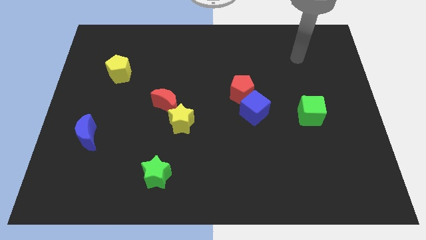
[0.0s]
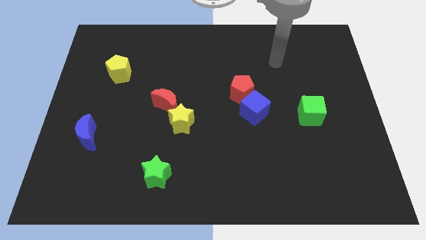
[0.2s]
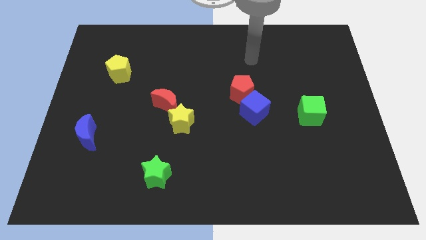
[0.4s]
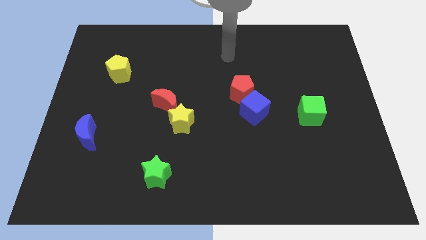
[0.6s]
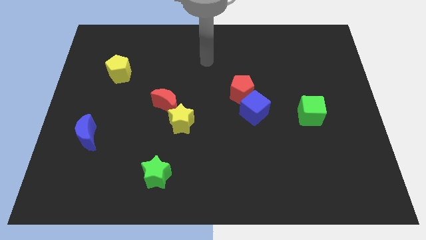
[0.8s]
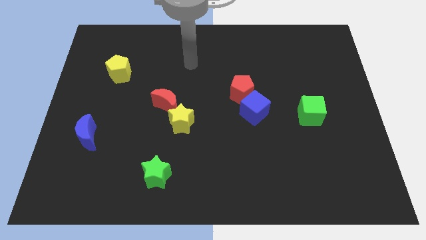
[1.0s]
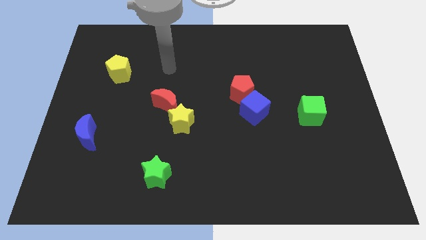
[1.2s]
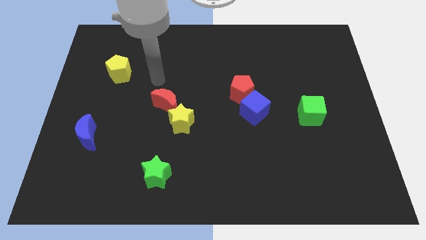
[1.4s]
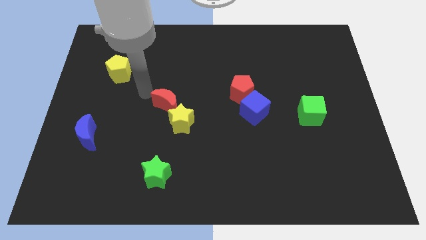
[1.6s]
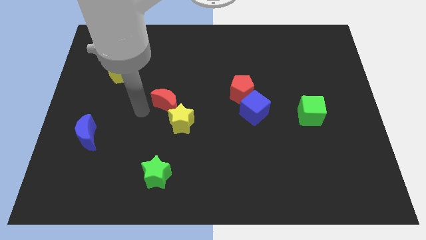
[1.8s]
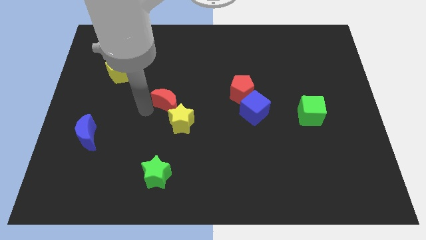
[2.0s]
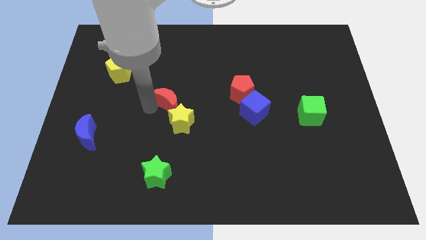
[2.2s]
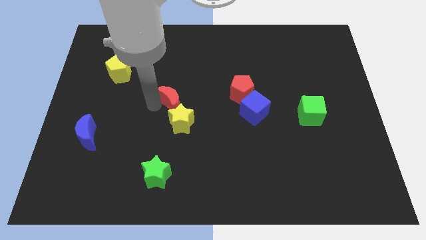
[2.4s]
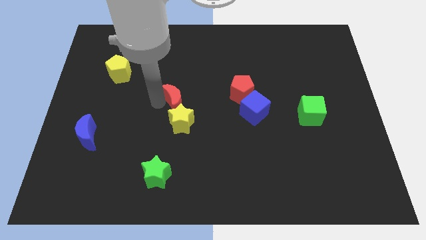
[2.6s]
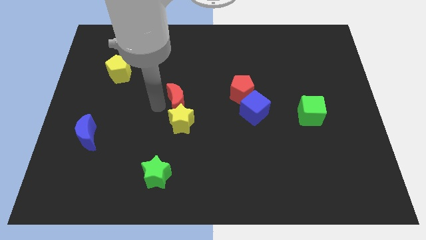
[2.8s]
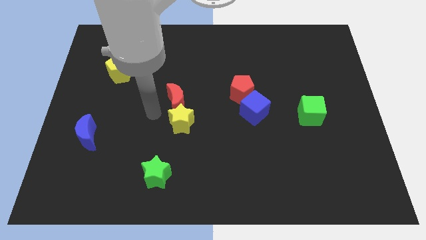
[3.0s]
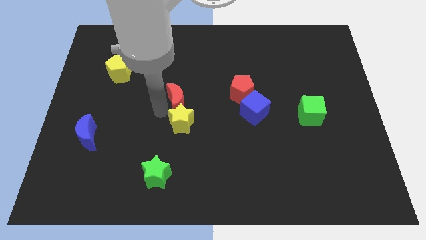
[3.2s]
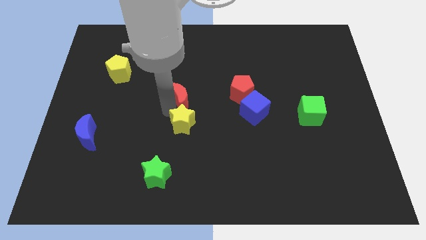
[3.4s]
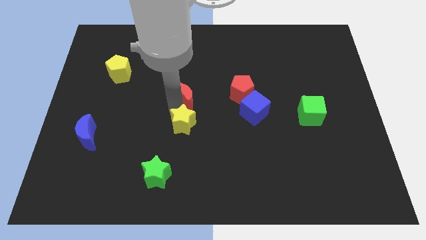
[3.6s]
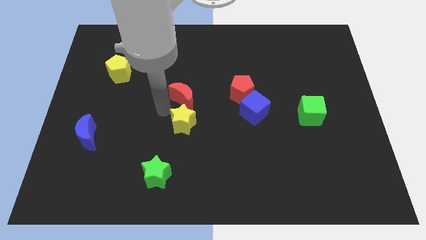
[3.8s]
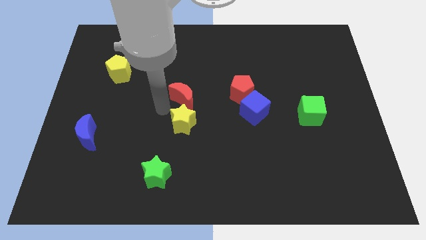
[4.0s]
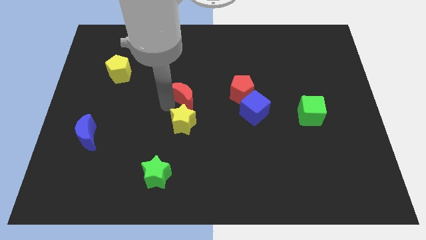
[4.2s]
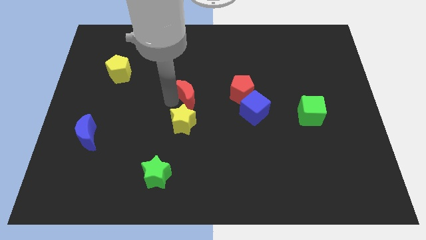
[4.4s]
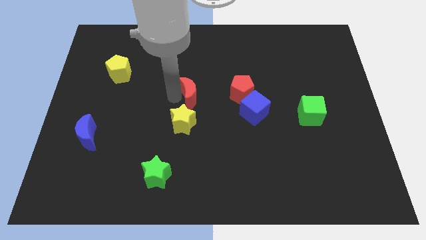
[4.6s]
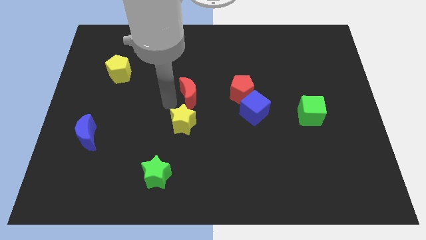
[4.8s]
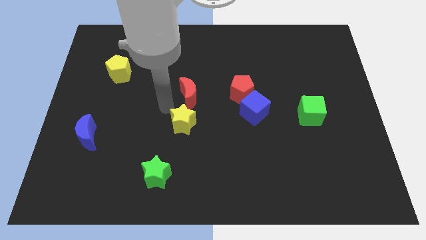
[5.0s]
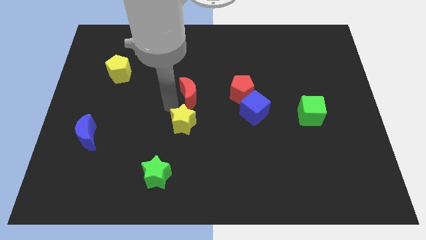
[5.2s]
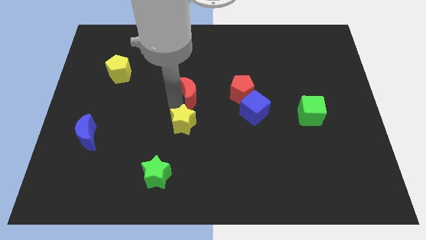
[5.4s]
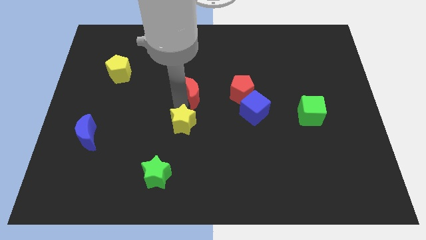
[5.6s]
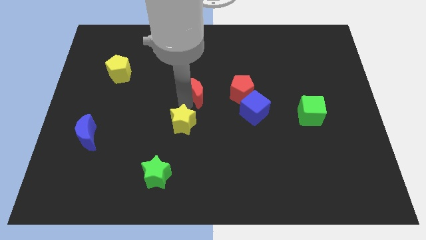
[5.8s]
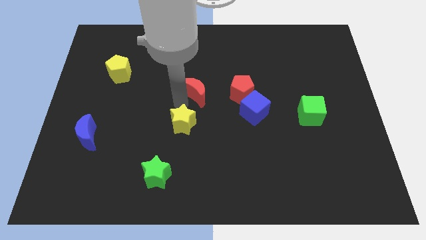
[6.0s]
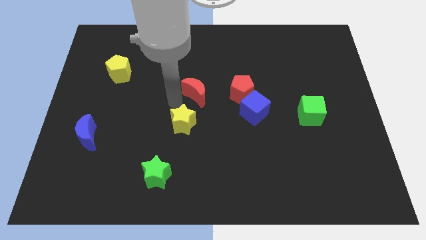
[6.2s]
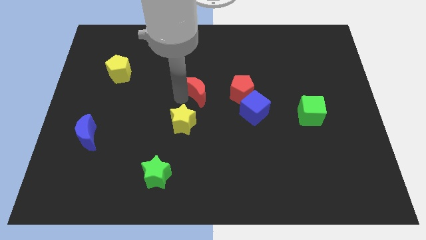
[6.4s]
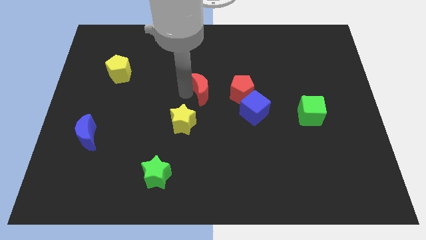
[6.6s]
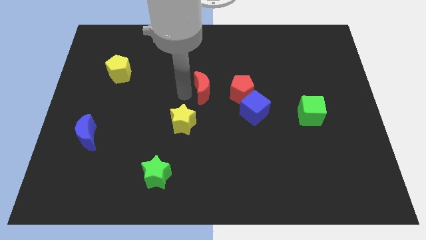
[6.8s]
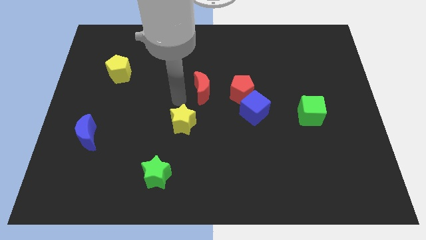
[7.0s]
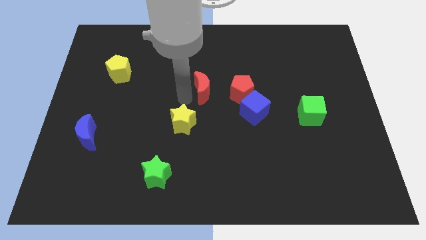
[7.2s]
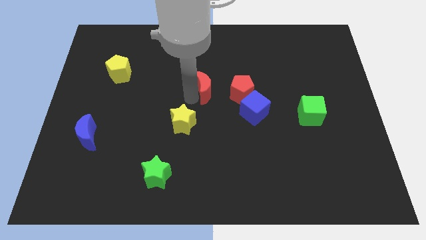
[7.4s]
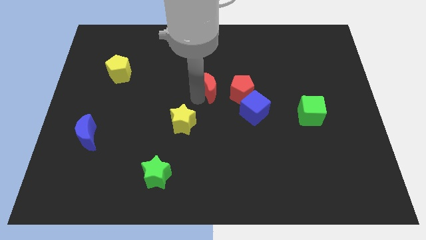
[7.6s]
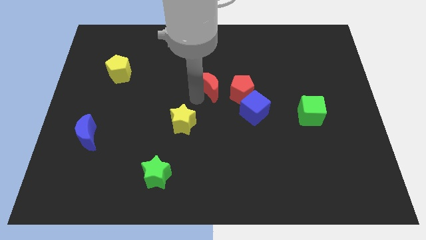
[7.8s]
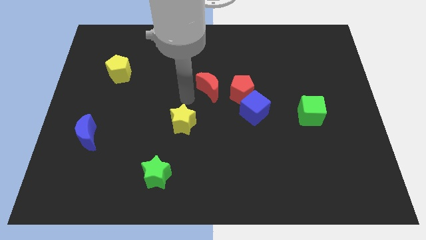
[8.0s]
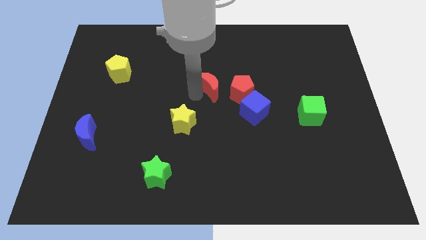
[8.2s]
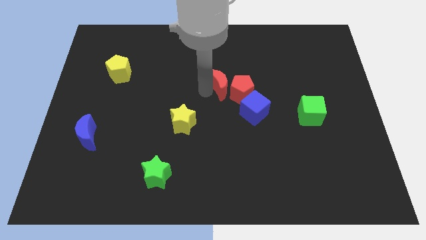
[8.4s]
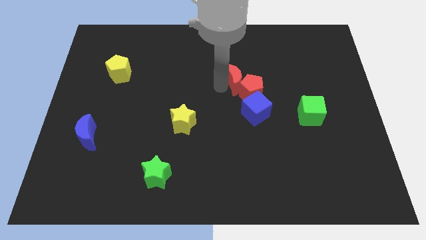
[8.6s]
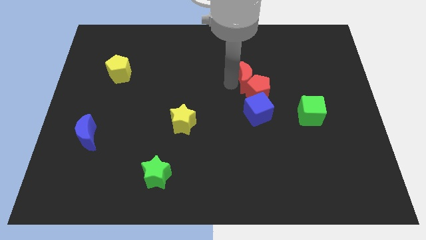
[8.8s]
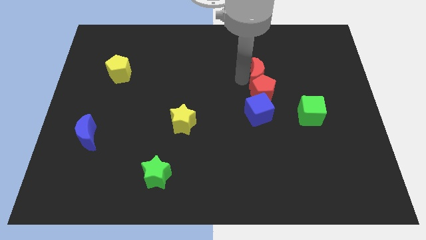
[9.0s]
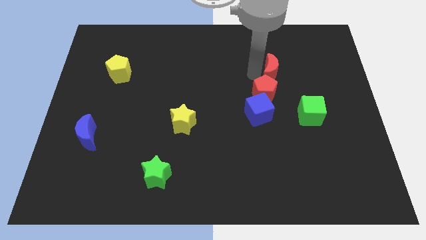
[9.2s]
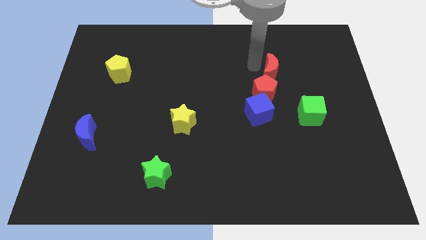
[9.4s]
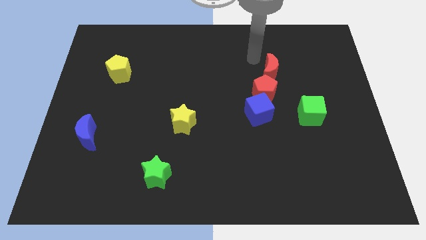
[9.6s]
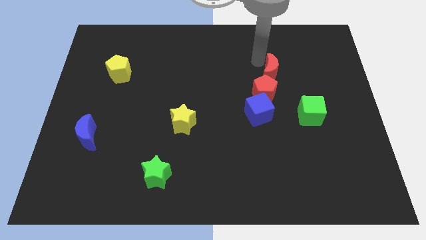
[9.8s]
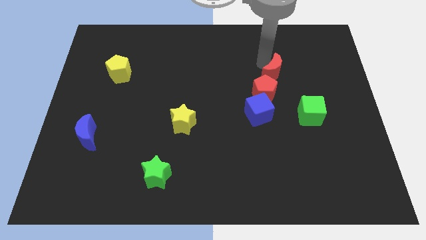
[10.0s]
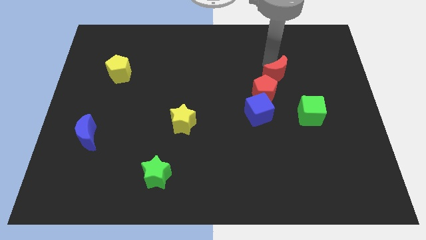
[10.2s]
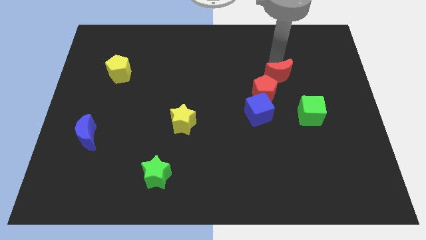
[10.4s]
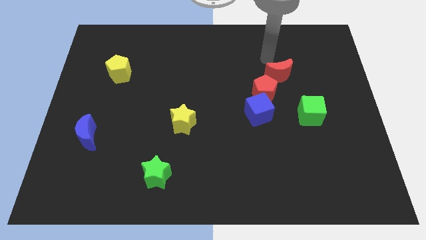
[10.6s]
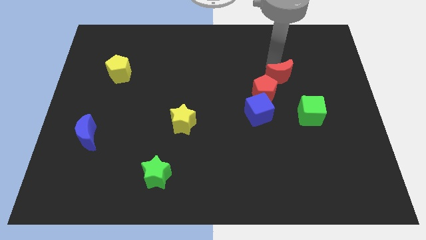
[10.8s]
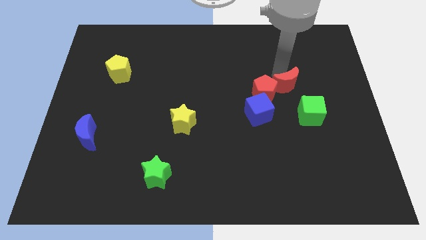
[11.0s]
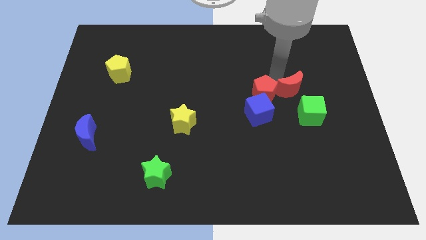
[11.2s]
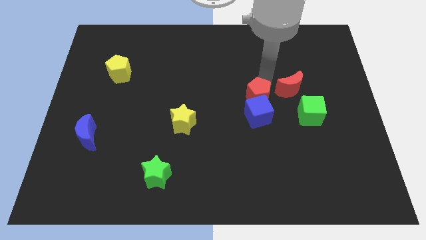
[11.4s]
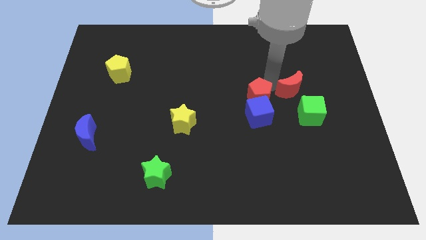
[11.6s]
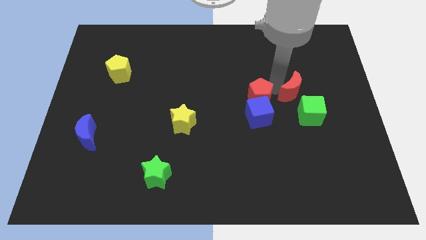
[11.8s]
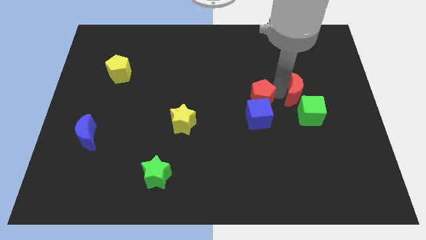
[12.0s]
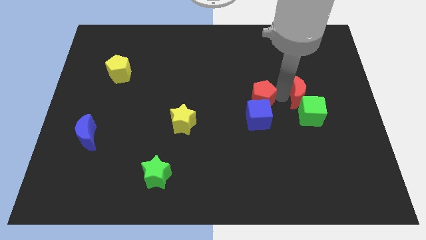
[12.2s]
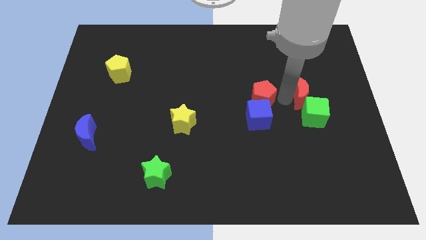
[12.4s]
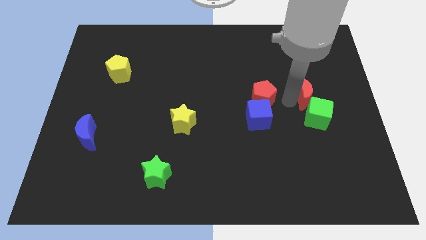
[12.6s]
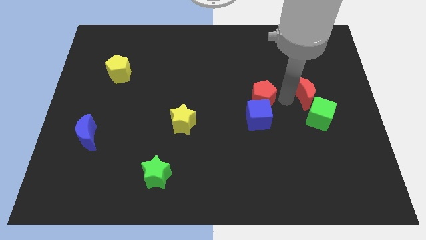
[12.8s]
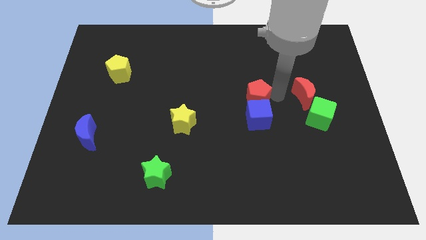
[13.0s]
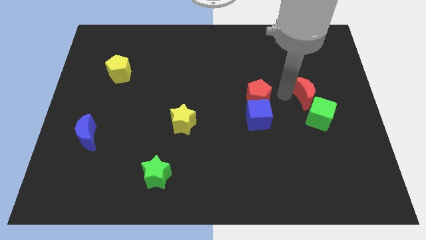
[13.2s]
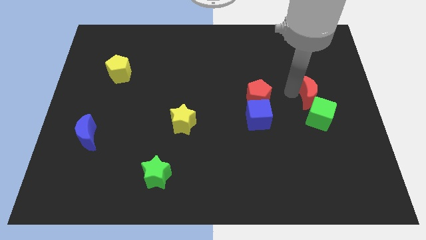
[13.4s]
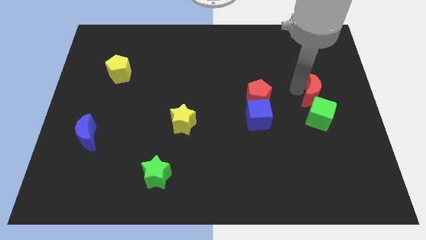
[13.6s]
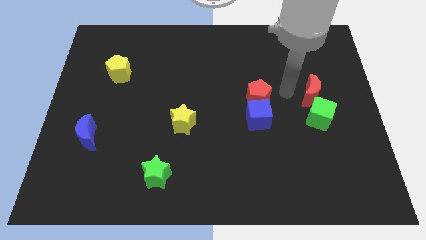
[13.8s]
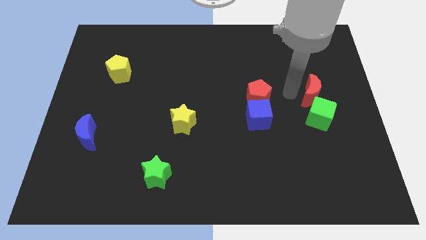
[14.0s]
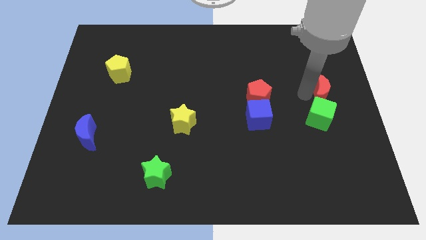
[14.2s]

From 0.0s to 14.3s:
push the red moon to the right side of the board
